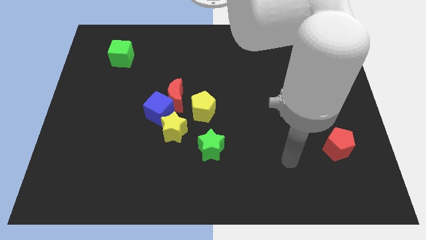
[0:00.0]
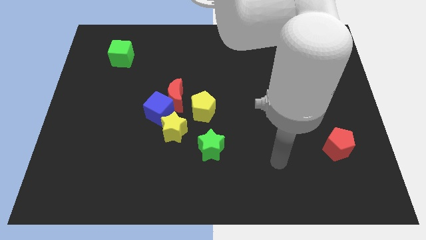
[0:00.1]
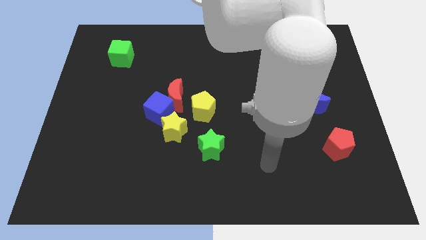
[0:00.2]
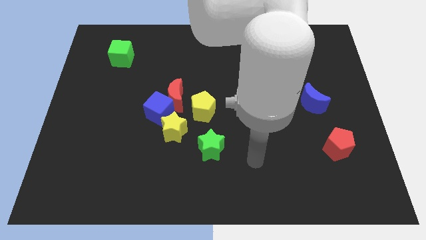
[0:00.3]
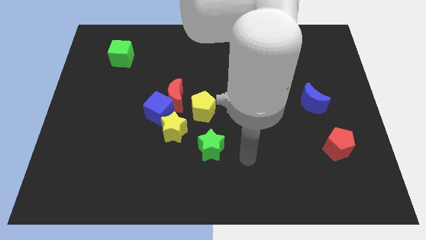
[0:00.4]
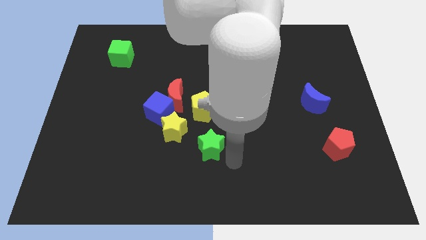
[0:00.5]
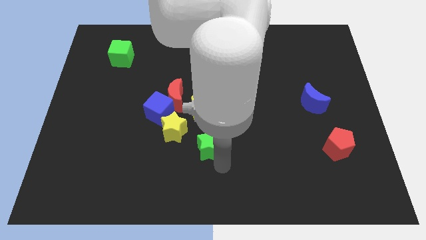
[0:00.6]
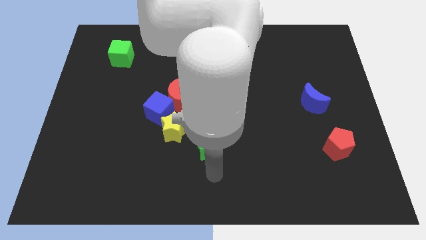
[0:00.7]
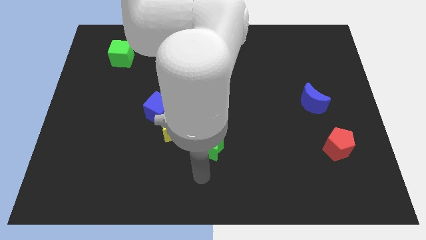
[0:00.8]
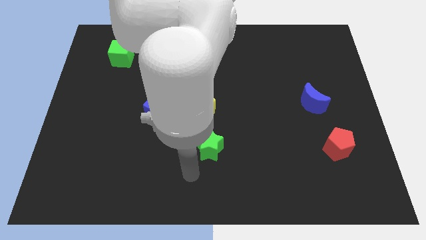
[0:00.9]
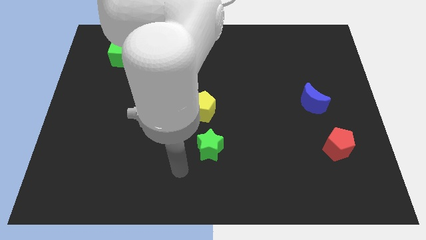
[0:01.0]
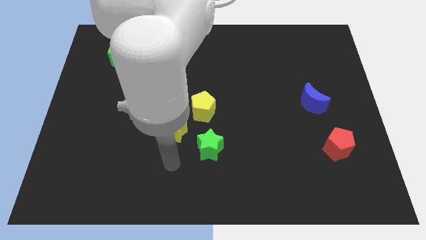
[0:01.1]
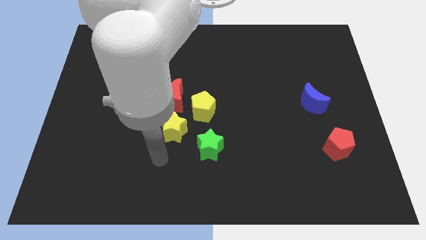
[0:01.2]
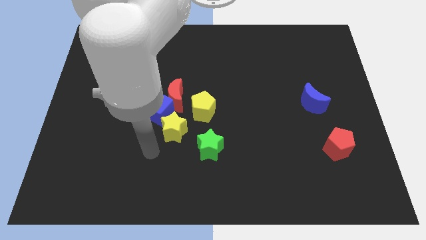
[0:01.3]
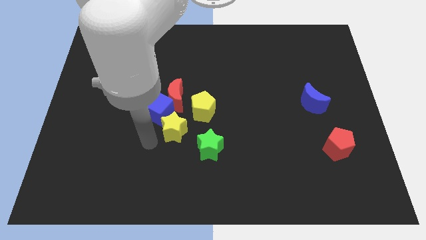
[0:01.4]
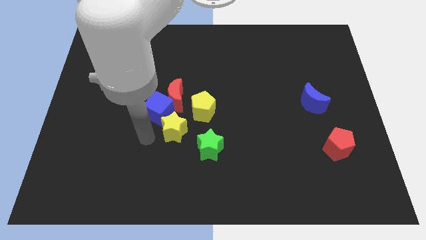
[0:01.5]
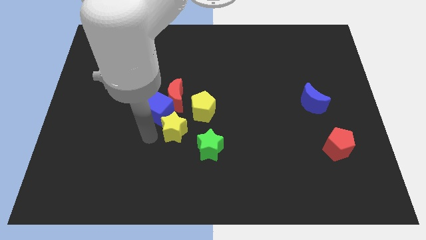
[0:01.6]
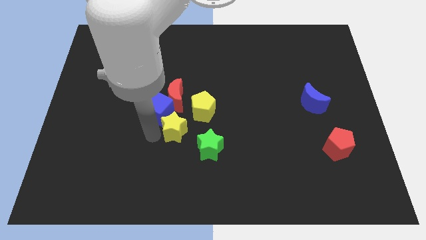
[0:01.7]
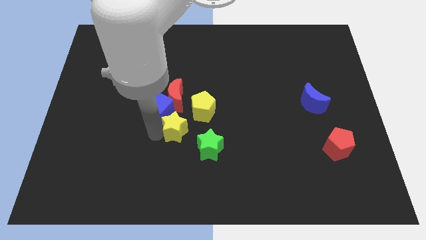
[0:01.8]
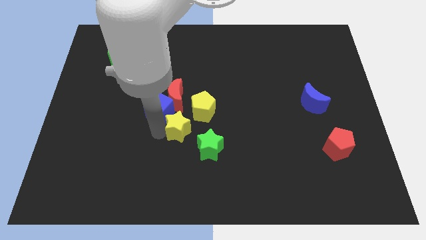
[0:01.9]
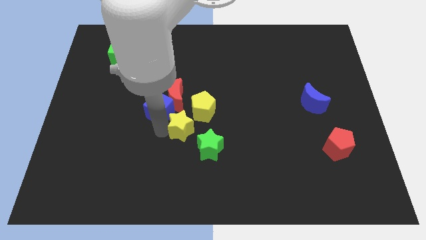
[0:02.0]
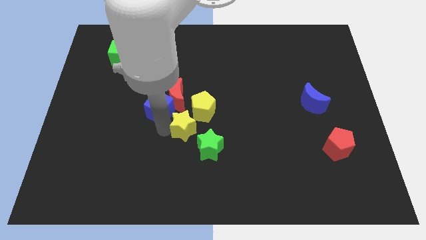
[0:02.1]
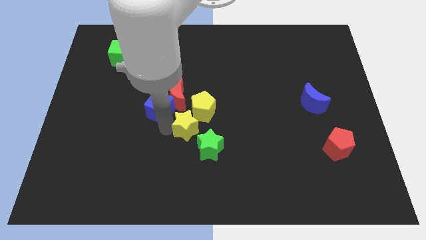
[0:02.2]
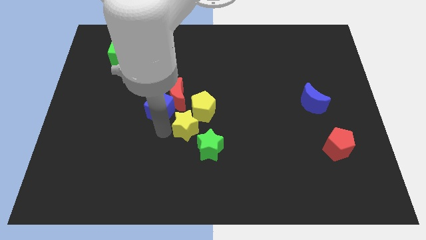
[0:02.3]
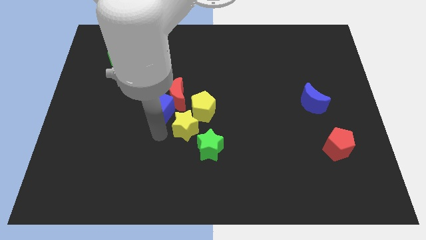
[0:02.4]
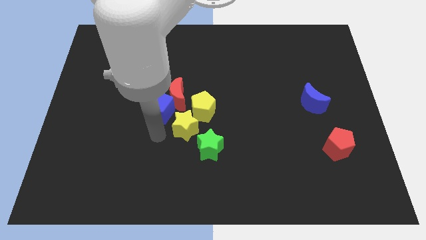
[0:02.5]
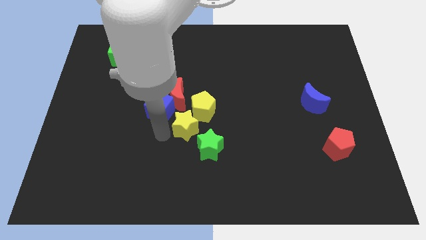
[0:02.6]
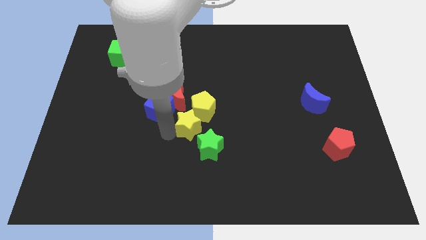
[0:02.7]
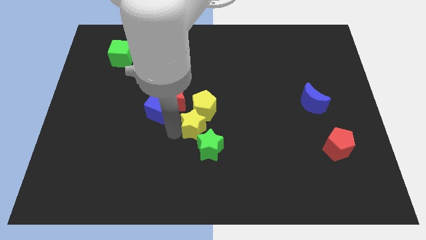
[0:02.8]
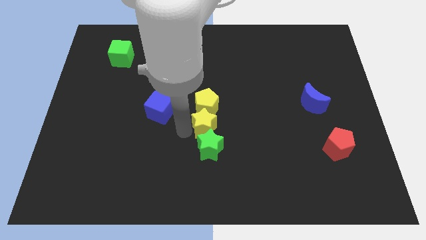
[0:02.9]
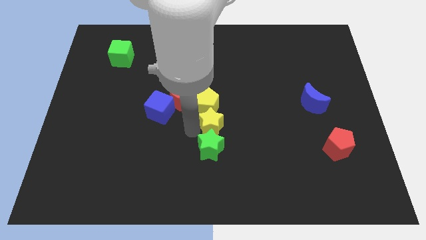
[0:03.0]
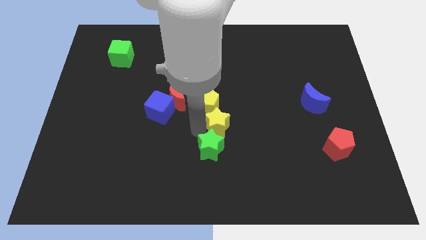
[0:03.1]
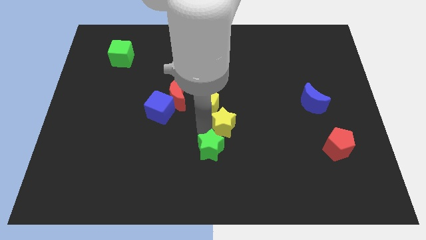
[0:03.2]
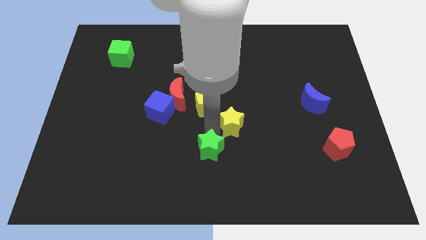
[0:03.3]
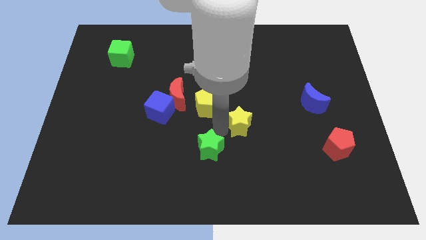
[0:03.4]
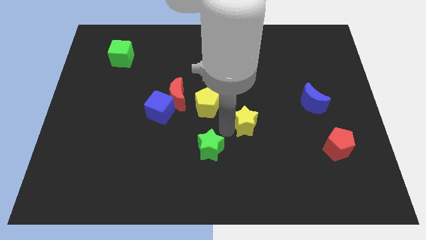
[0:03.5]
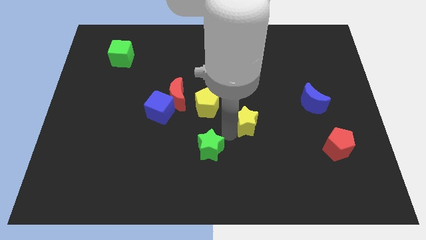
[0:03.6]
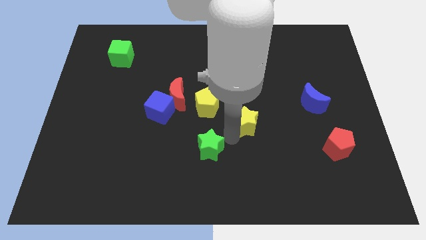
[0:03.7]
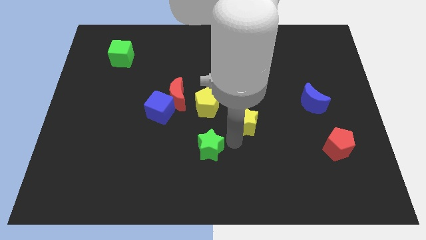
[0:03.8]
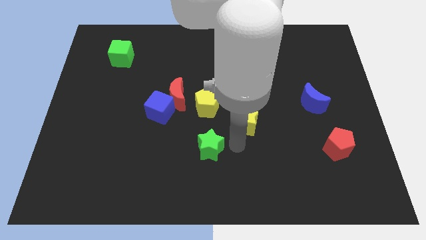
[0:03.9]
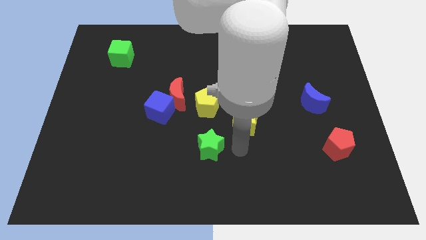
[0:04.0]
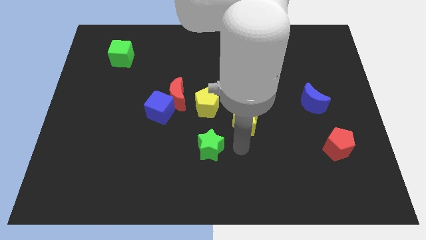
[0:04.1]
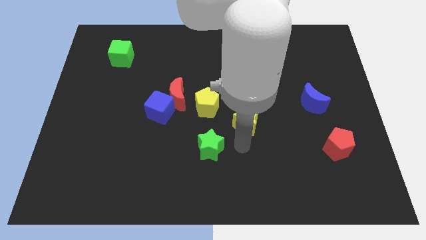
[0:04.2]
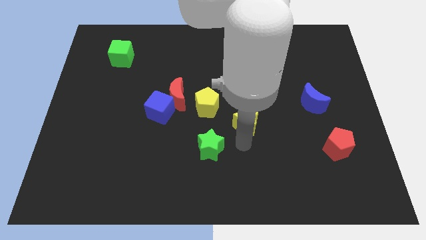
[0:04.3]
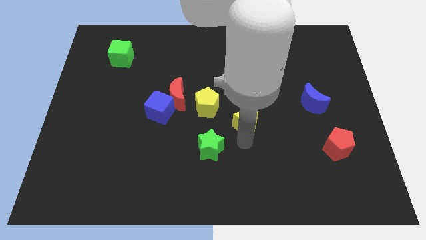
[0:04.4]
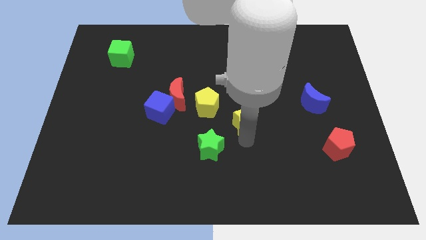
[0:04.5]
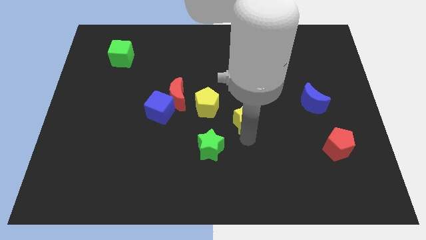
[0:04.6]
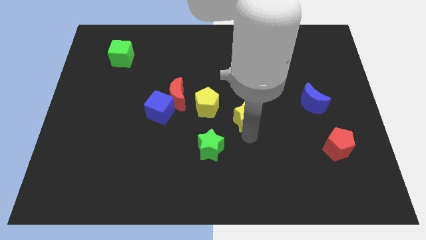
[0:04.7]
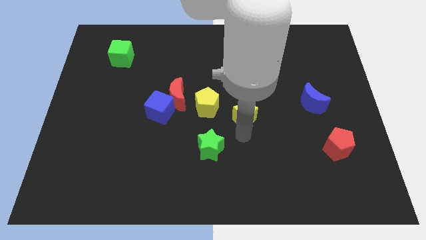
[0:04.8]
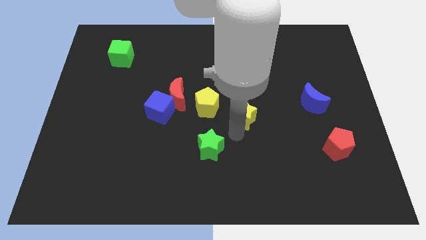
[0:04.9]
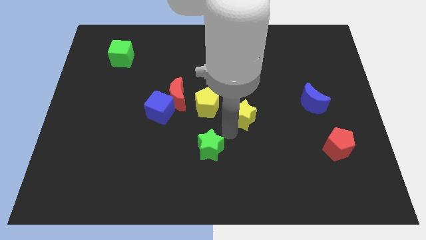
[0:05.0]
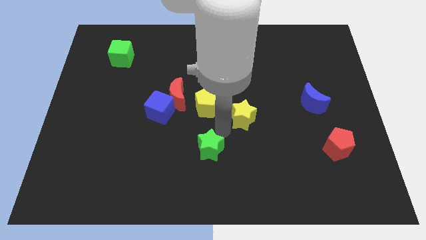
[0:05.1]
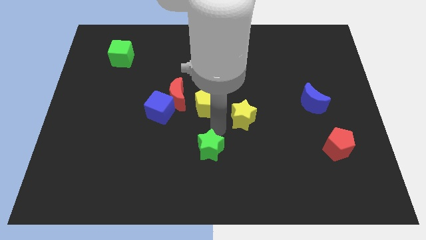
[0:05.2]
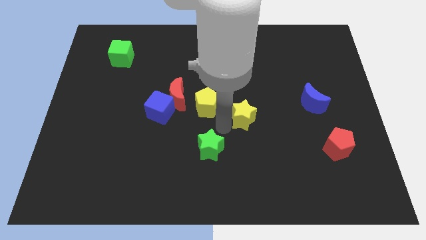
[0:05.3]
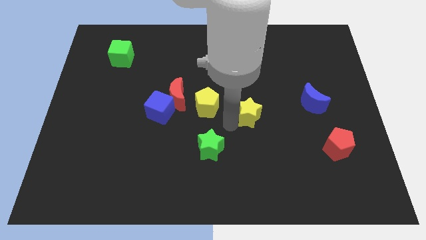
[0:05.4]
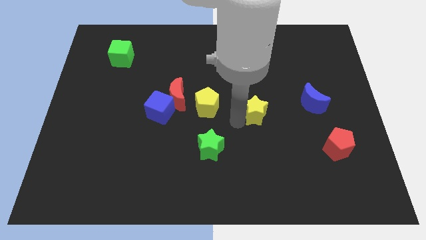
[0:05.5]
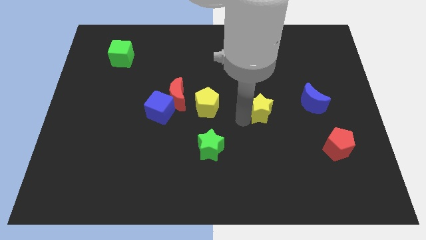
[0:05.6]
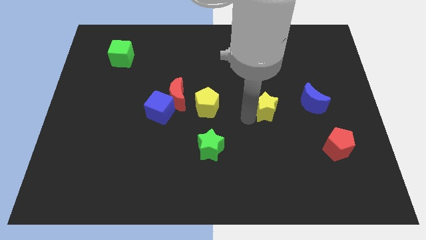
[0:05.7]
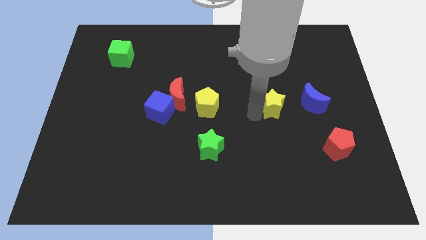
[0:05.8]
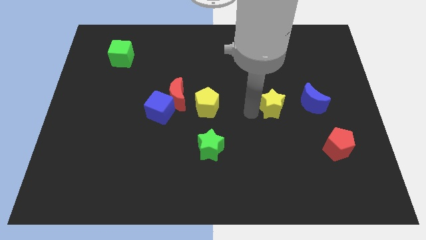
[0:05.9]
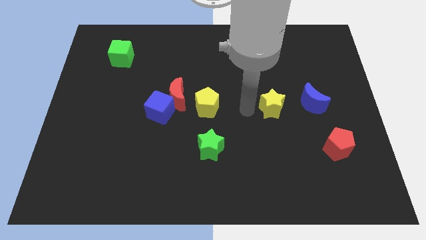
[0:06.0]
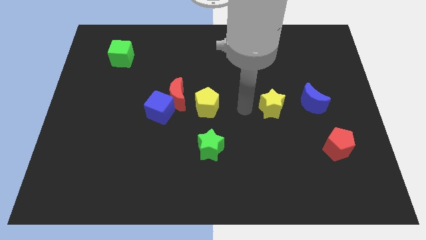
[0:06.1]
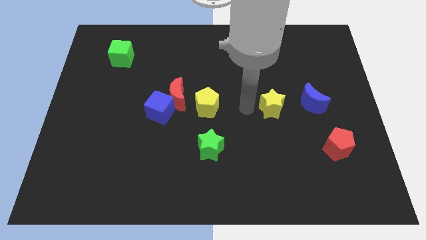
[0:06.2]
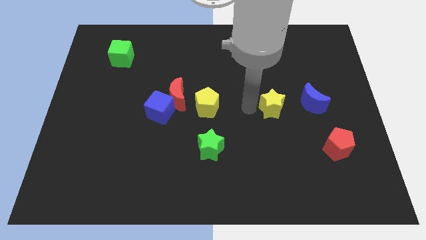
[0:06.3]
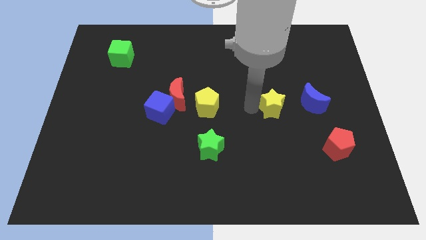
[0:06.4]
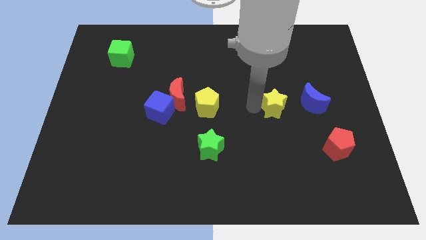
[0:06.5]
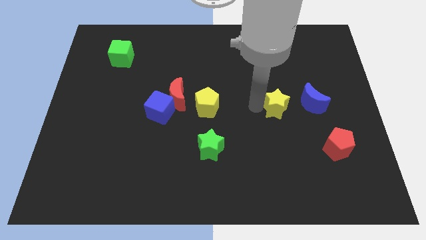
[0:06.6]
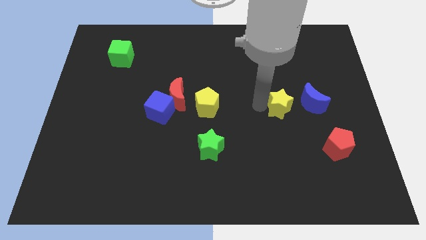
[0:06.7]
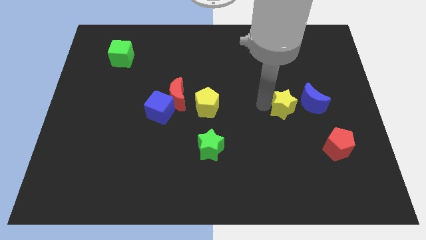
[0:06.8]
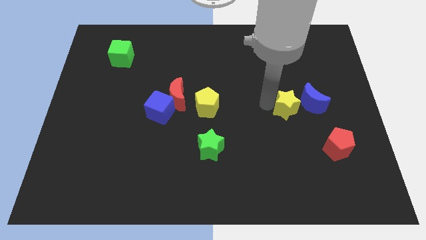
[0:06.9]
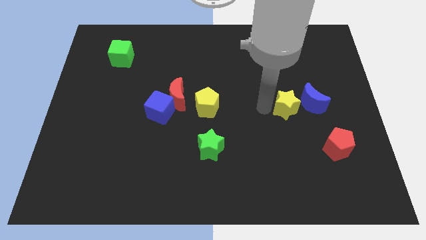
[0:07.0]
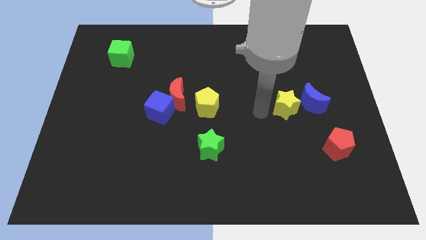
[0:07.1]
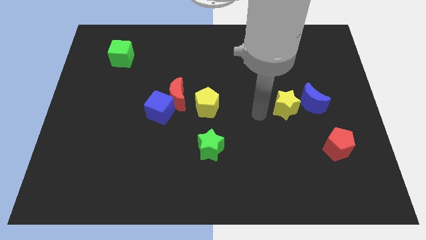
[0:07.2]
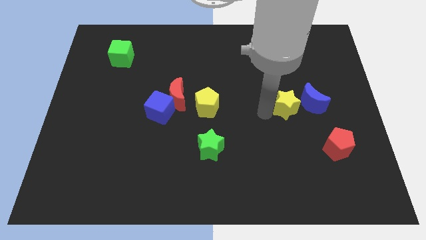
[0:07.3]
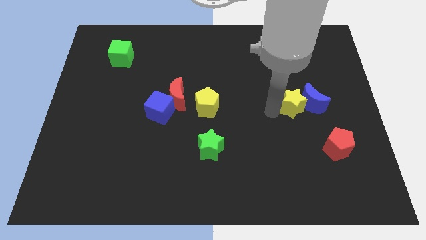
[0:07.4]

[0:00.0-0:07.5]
push the yellow star close to the blue moon
